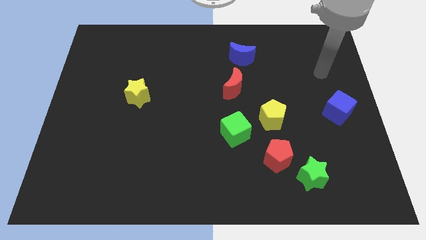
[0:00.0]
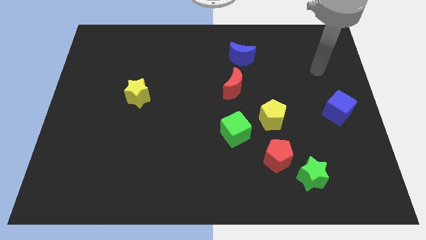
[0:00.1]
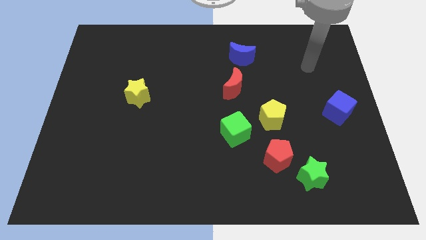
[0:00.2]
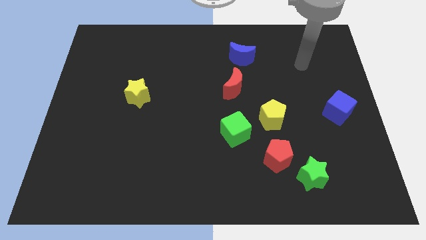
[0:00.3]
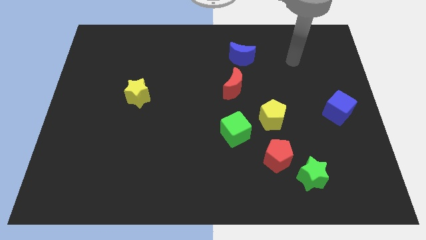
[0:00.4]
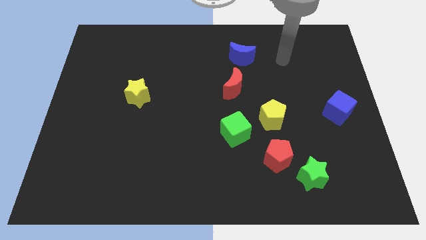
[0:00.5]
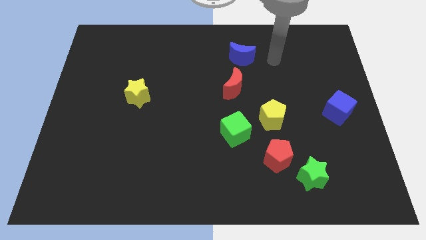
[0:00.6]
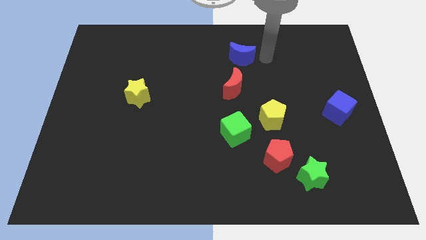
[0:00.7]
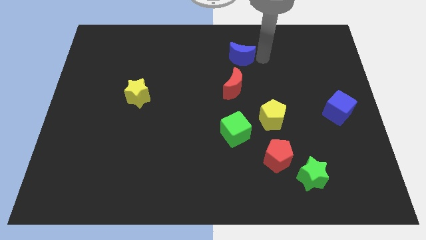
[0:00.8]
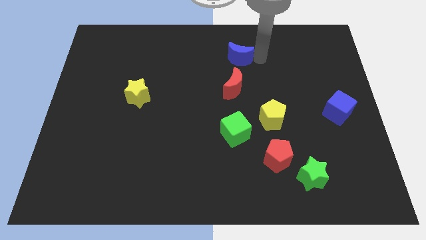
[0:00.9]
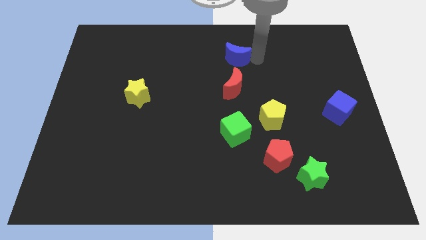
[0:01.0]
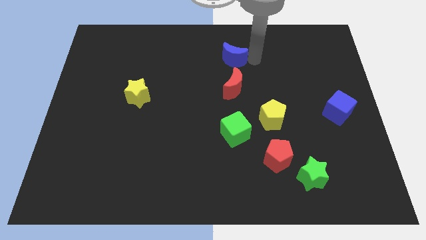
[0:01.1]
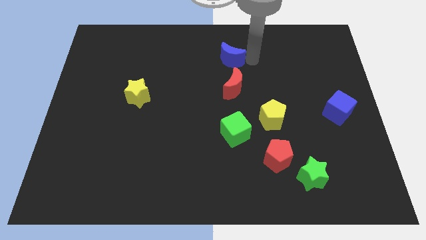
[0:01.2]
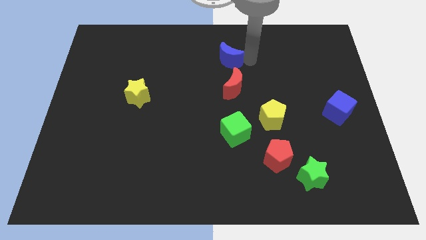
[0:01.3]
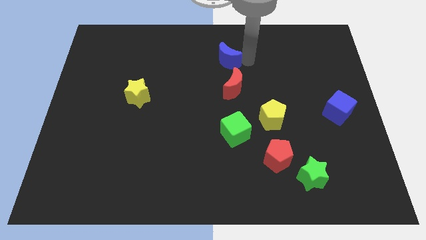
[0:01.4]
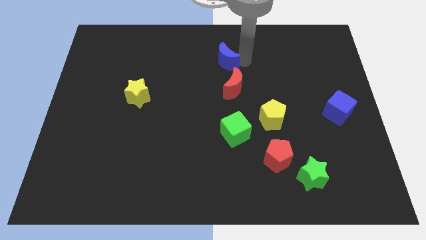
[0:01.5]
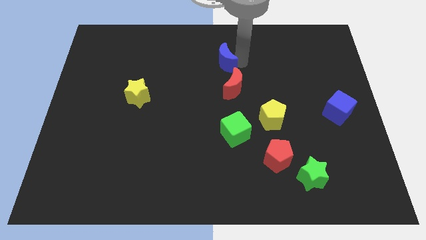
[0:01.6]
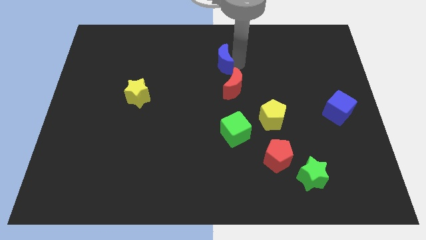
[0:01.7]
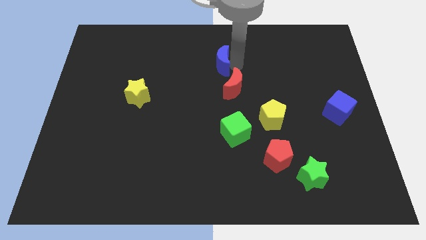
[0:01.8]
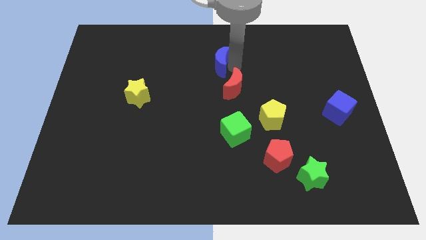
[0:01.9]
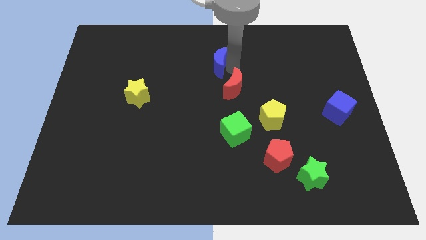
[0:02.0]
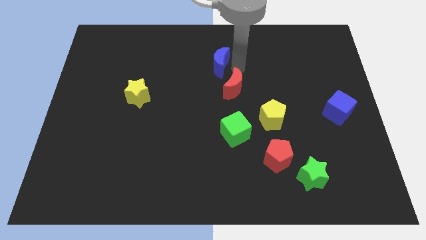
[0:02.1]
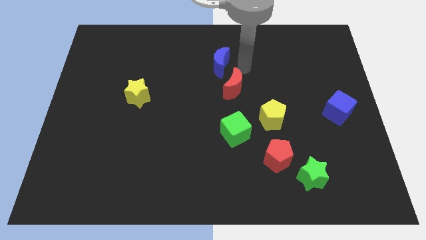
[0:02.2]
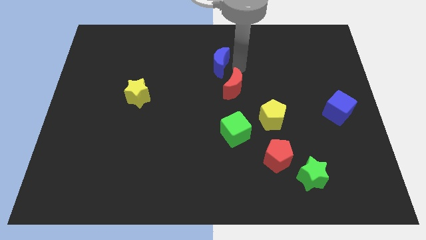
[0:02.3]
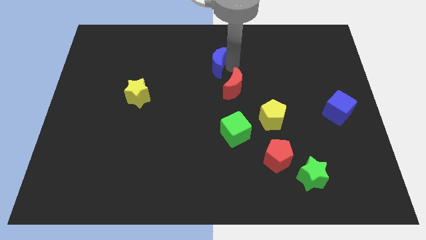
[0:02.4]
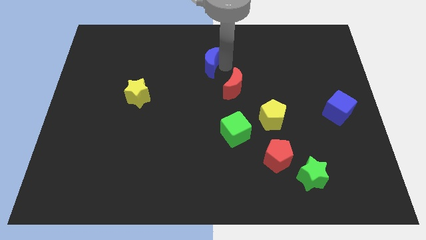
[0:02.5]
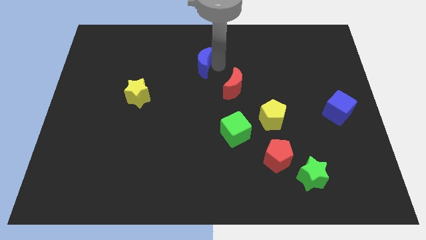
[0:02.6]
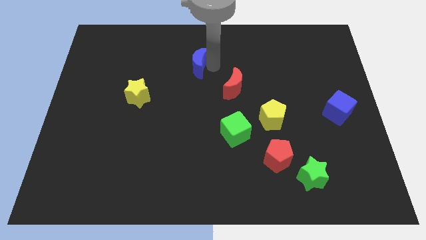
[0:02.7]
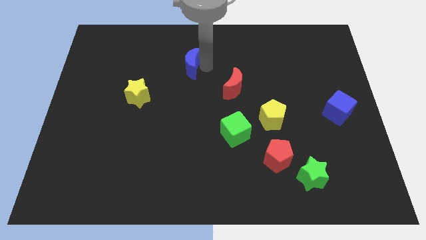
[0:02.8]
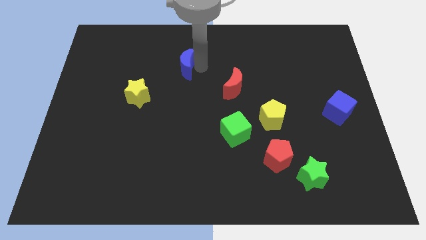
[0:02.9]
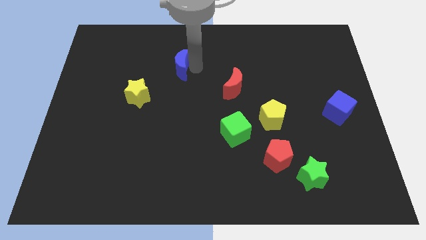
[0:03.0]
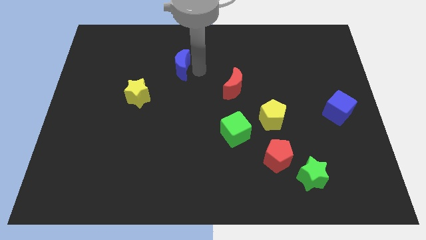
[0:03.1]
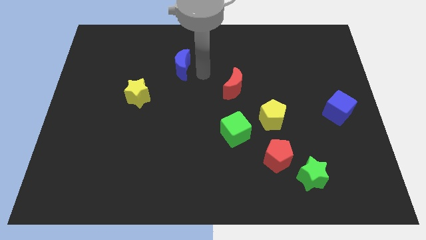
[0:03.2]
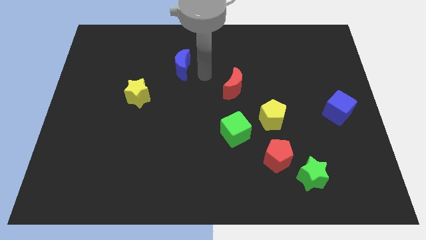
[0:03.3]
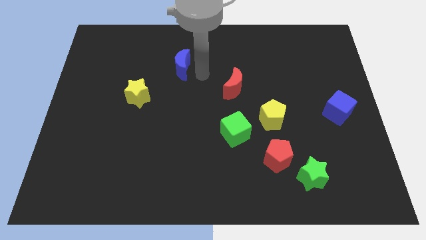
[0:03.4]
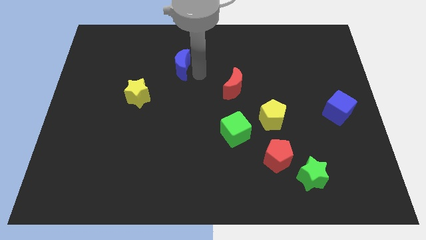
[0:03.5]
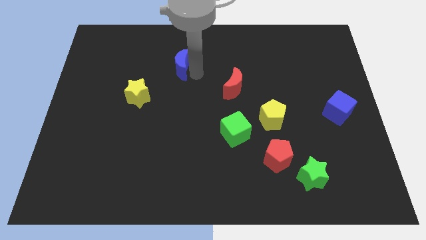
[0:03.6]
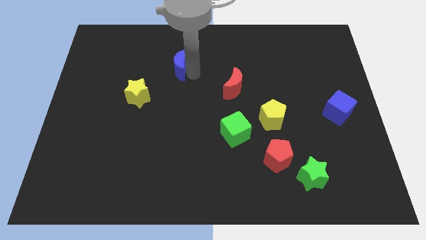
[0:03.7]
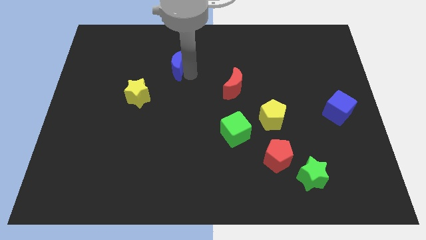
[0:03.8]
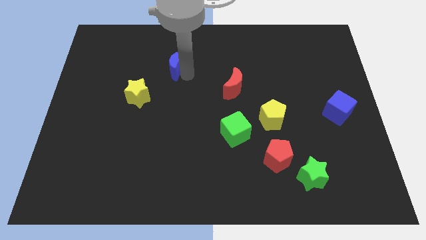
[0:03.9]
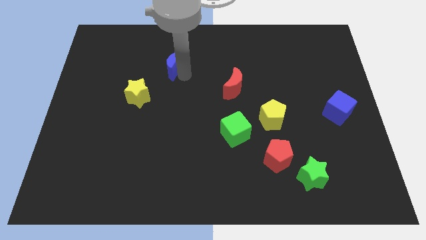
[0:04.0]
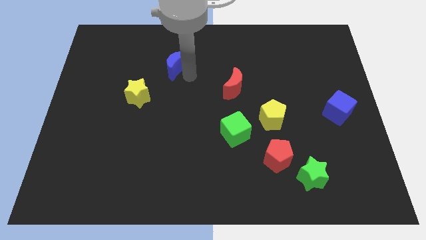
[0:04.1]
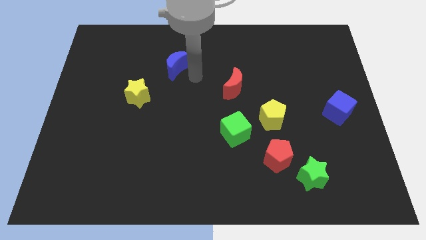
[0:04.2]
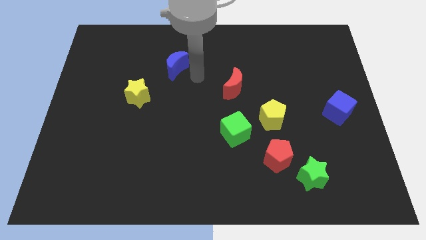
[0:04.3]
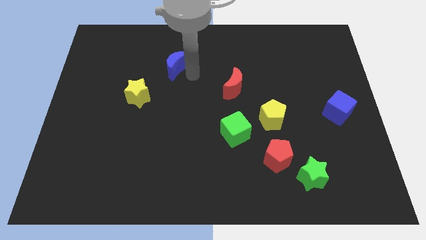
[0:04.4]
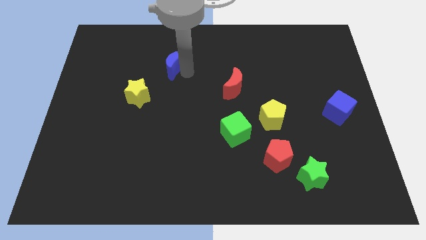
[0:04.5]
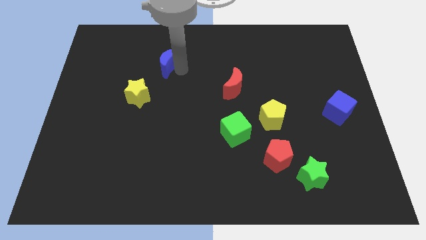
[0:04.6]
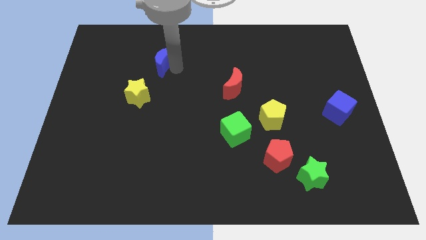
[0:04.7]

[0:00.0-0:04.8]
push the blue moon left

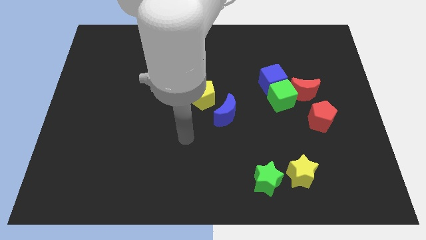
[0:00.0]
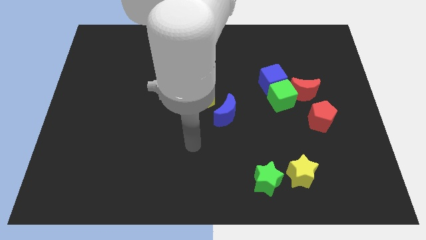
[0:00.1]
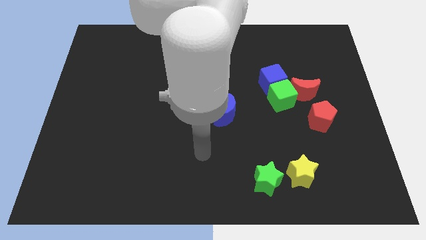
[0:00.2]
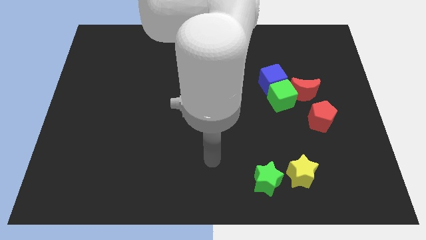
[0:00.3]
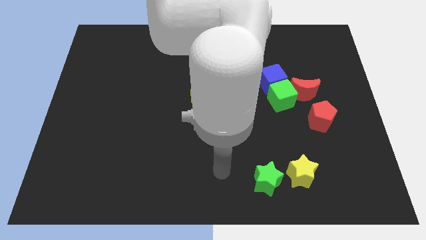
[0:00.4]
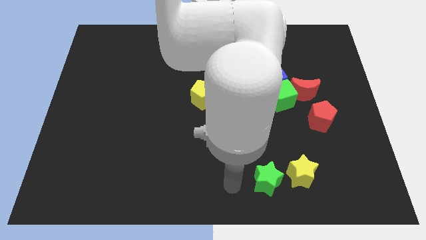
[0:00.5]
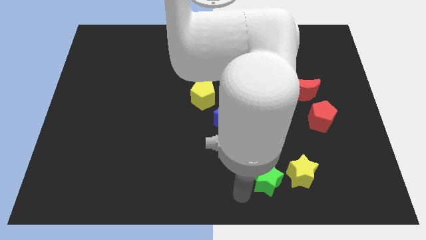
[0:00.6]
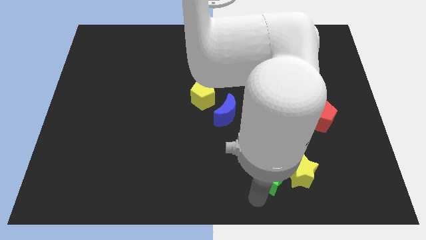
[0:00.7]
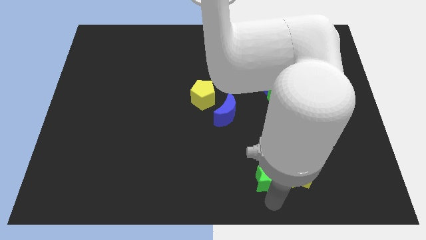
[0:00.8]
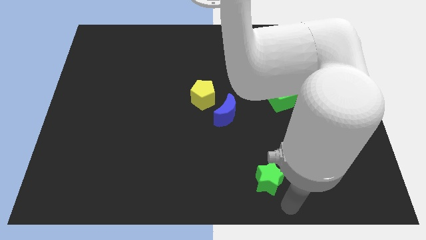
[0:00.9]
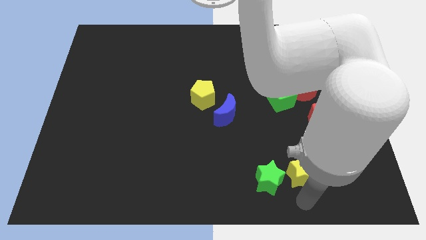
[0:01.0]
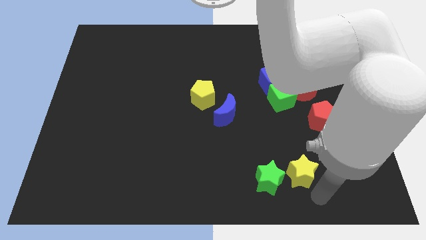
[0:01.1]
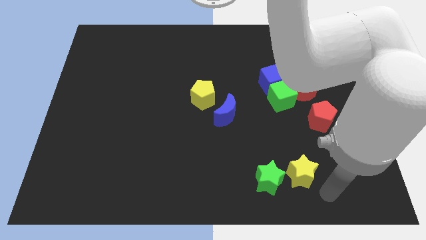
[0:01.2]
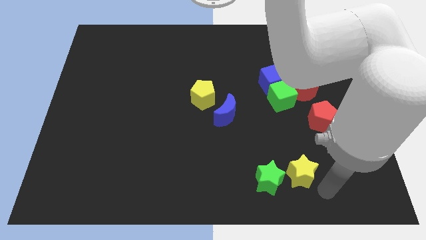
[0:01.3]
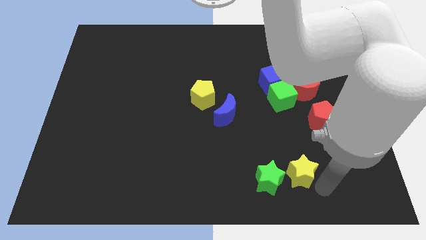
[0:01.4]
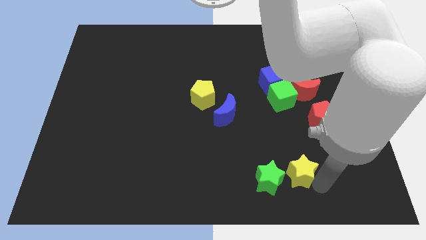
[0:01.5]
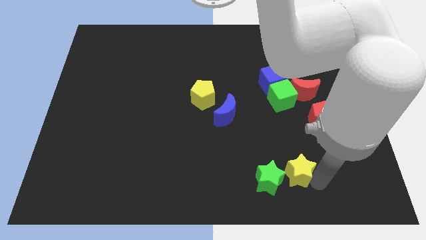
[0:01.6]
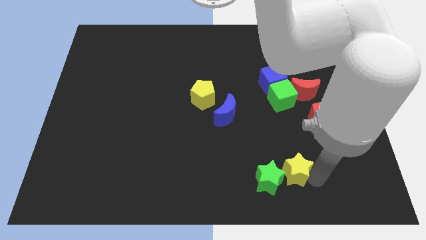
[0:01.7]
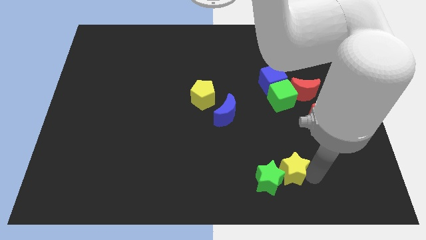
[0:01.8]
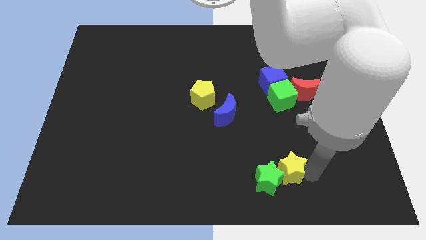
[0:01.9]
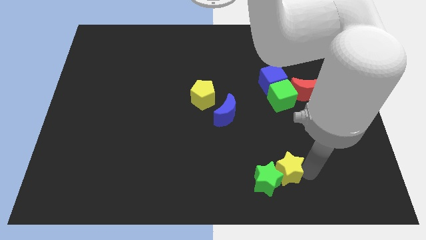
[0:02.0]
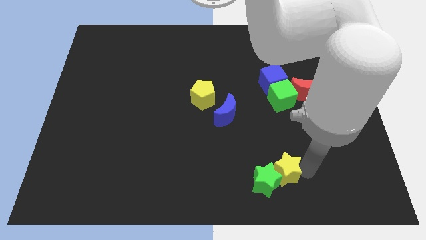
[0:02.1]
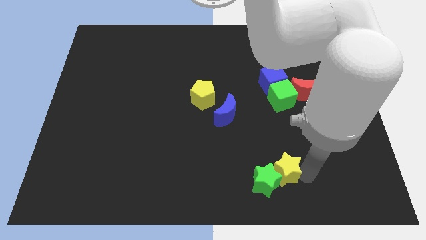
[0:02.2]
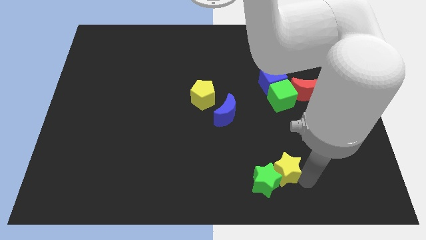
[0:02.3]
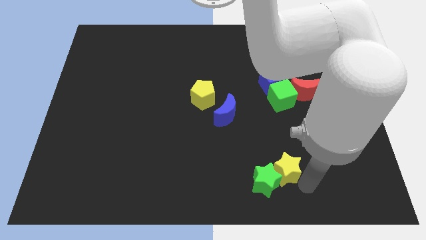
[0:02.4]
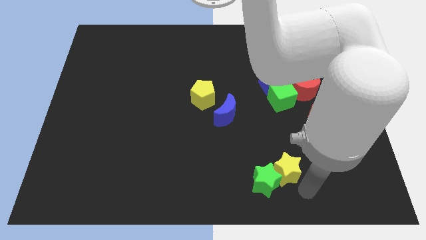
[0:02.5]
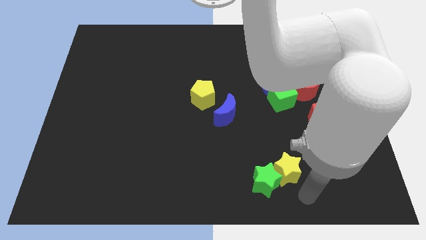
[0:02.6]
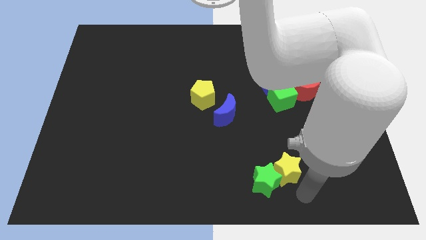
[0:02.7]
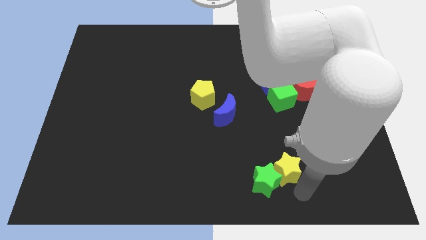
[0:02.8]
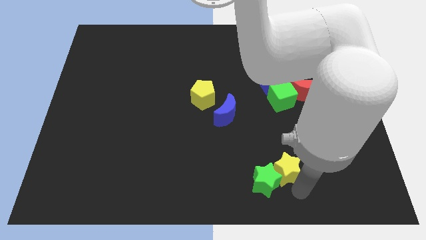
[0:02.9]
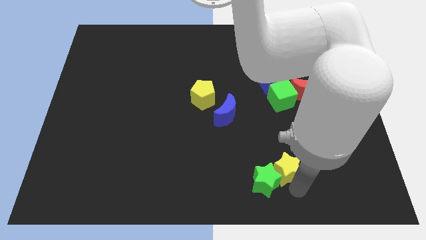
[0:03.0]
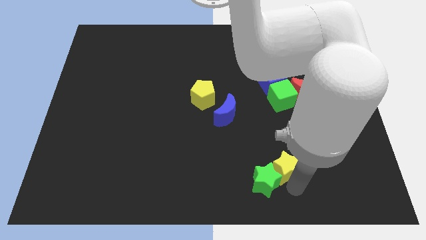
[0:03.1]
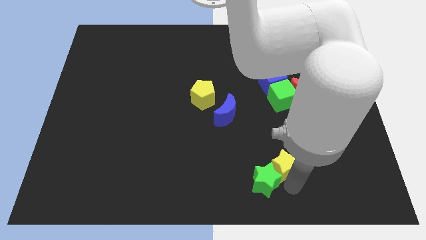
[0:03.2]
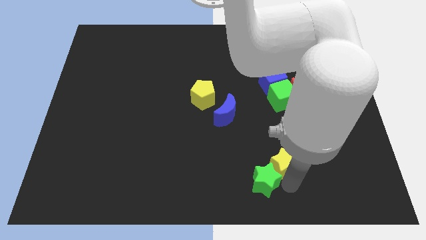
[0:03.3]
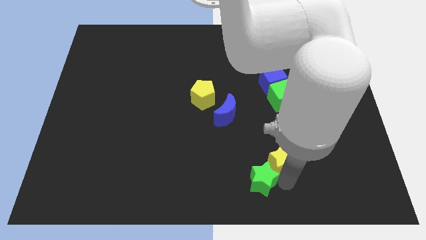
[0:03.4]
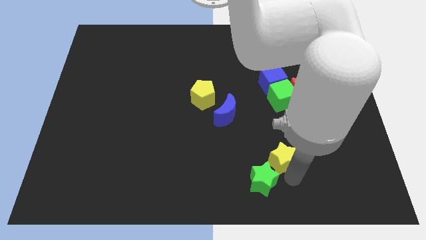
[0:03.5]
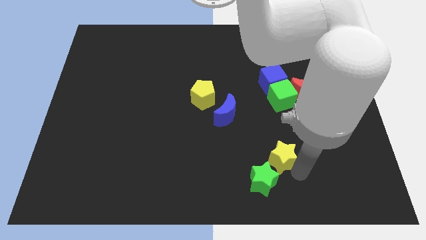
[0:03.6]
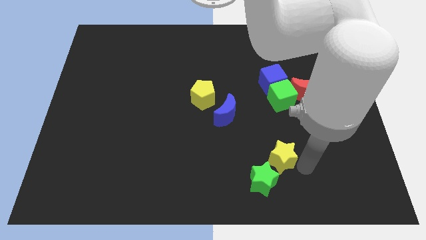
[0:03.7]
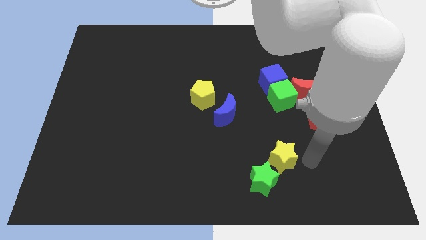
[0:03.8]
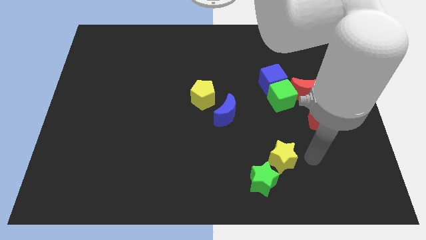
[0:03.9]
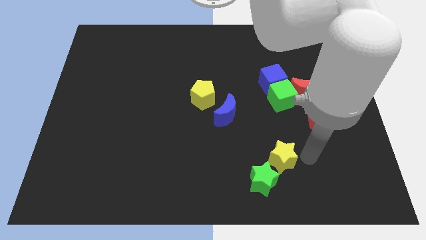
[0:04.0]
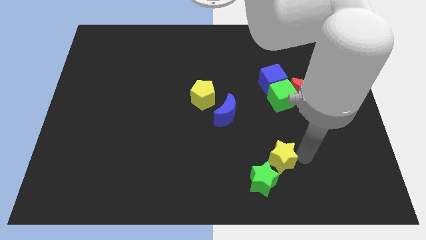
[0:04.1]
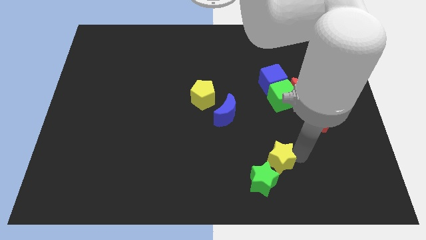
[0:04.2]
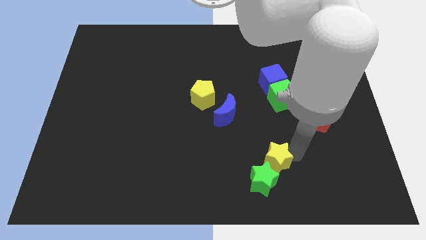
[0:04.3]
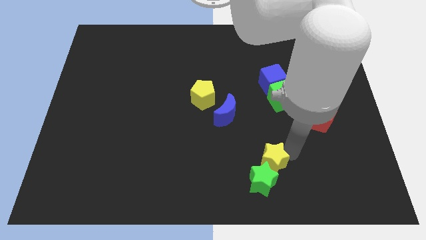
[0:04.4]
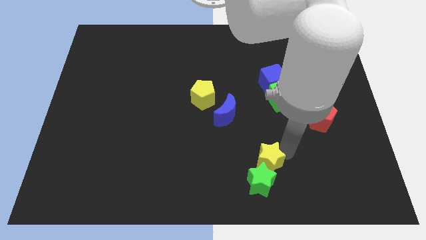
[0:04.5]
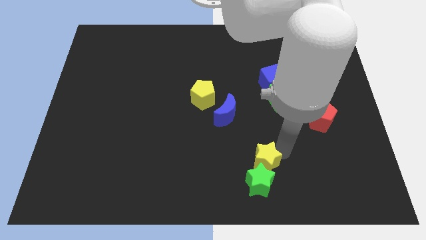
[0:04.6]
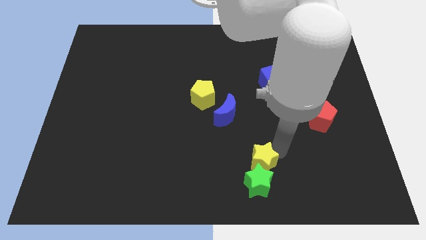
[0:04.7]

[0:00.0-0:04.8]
push the yellow star to the left a little
